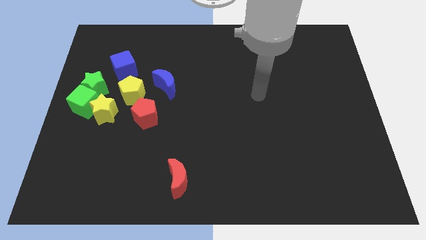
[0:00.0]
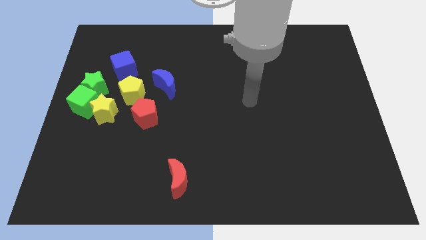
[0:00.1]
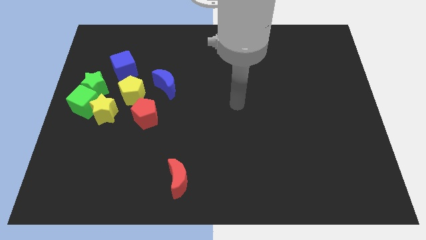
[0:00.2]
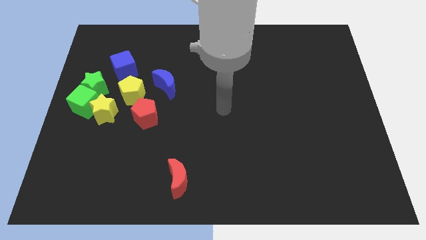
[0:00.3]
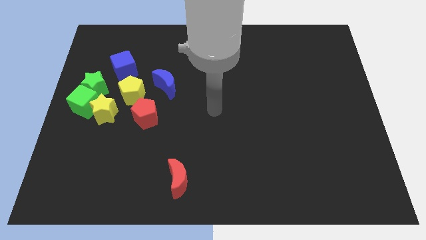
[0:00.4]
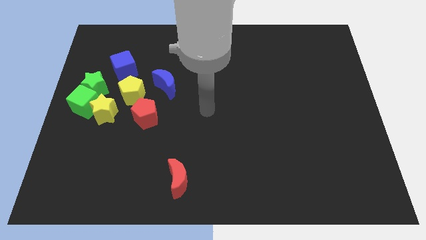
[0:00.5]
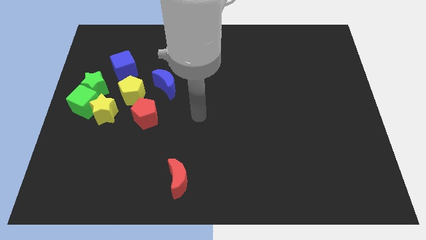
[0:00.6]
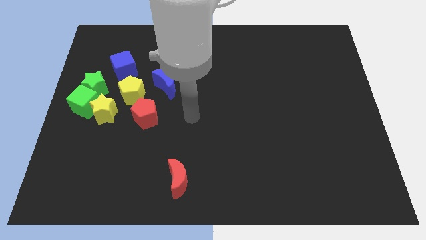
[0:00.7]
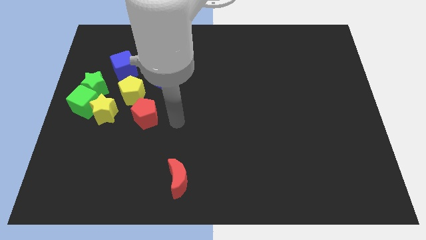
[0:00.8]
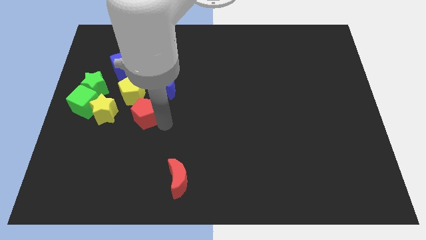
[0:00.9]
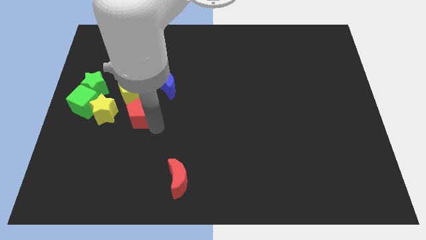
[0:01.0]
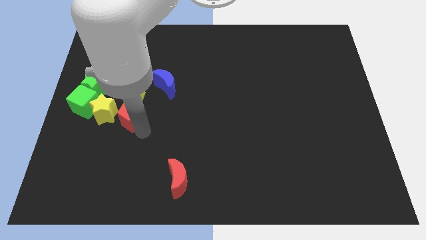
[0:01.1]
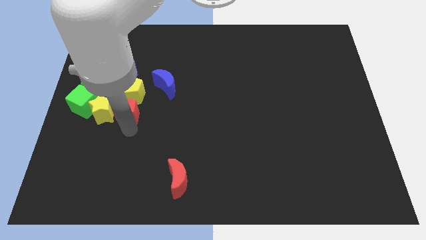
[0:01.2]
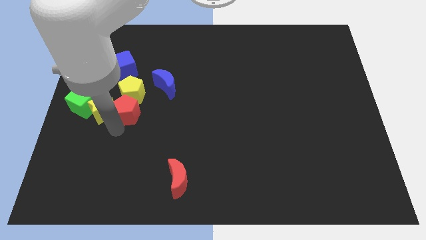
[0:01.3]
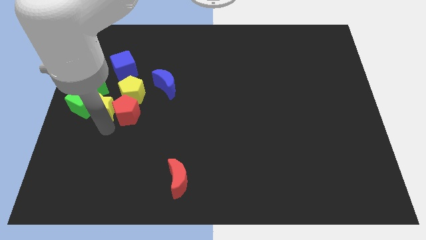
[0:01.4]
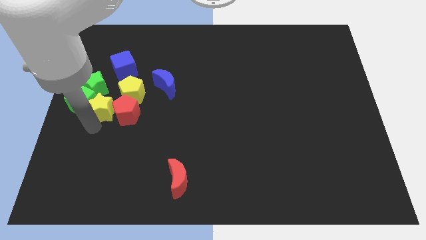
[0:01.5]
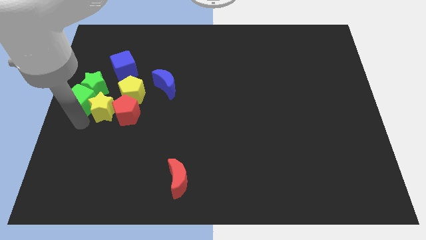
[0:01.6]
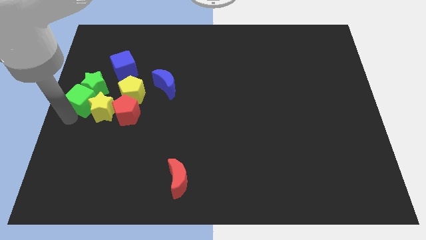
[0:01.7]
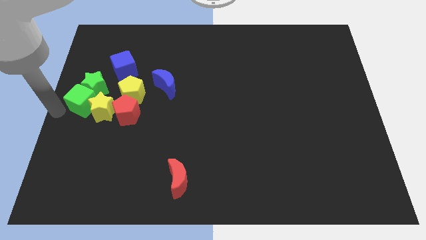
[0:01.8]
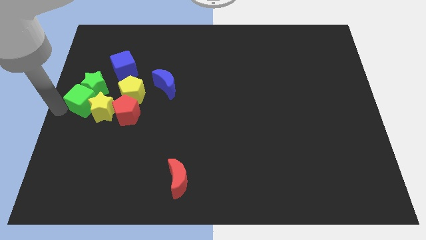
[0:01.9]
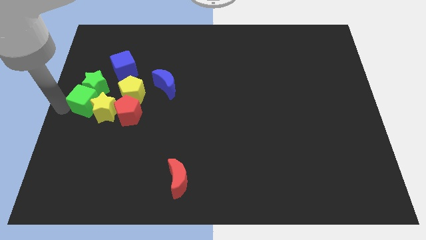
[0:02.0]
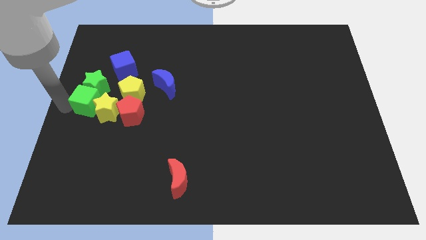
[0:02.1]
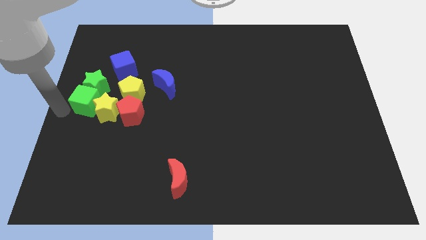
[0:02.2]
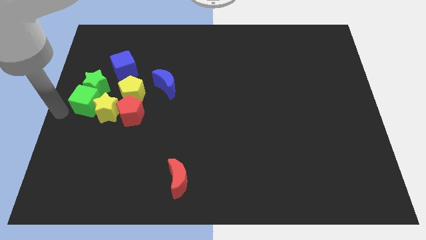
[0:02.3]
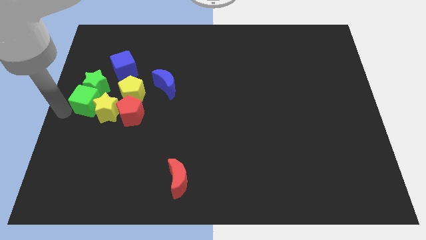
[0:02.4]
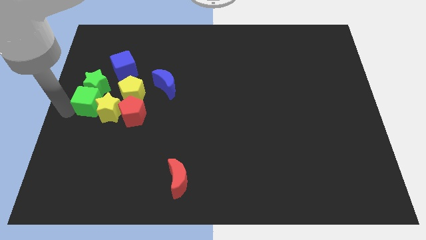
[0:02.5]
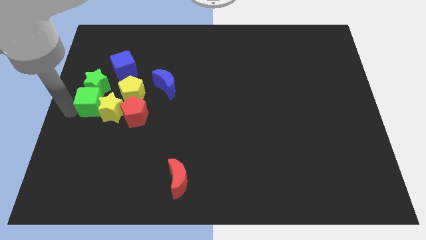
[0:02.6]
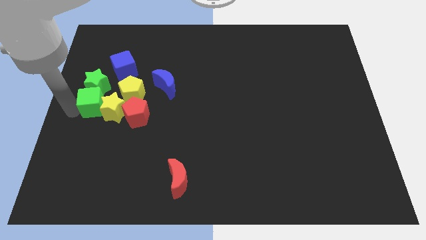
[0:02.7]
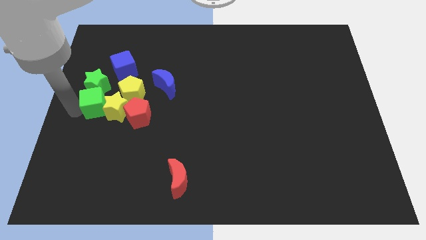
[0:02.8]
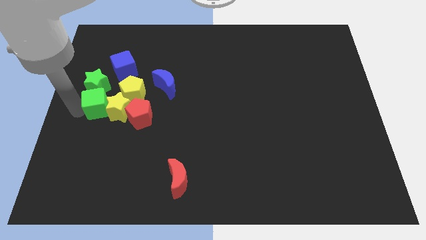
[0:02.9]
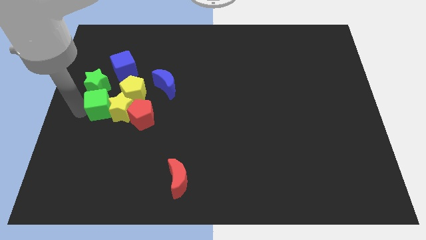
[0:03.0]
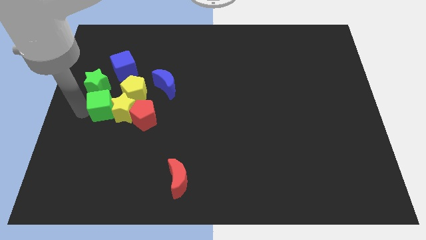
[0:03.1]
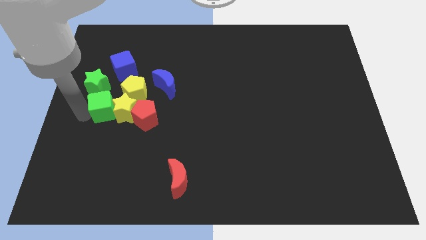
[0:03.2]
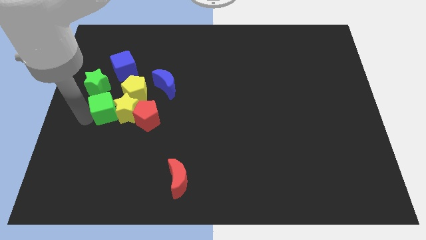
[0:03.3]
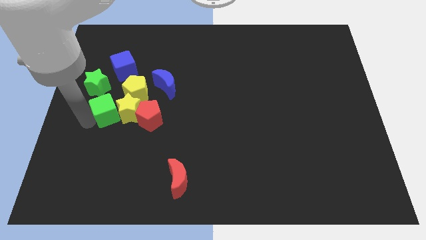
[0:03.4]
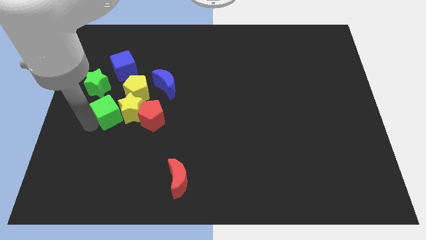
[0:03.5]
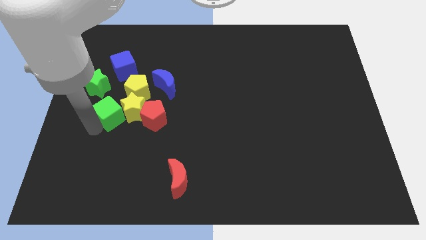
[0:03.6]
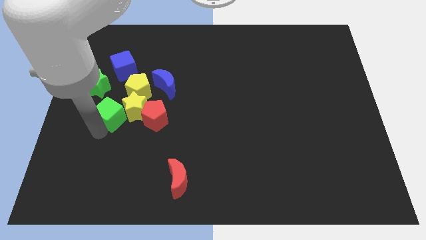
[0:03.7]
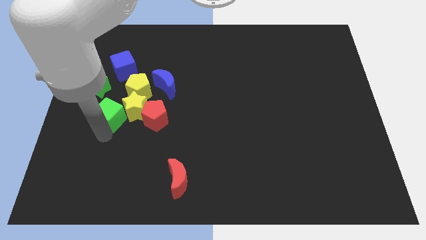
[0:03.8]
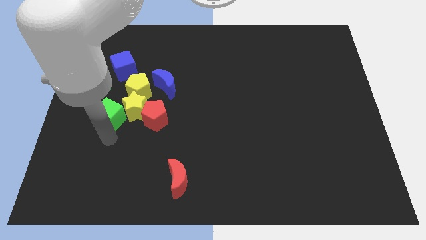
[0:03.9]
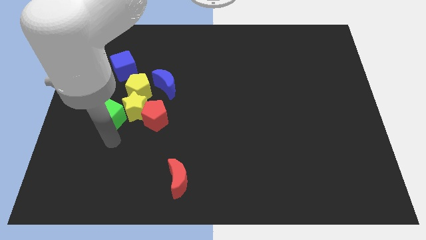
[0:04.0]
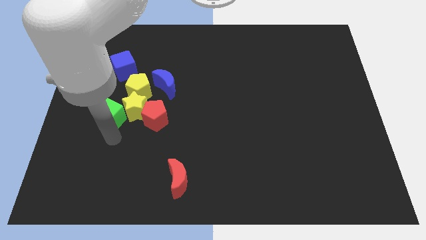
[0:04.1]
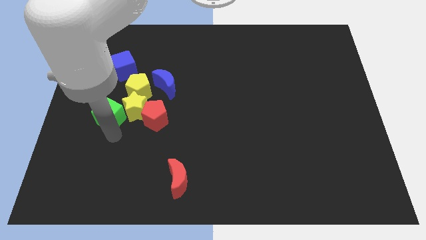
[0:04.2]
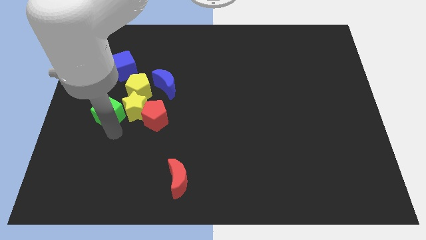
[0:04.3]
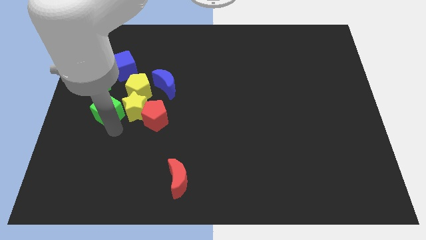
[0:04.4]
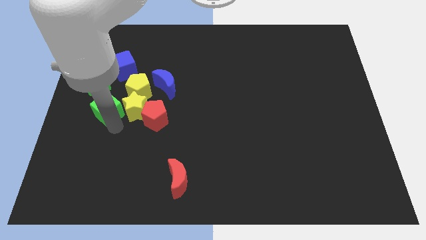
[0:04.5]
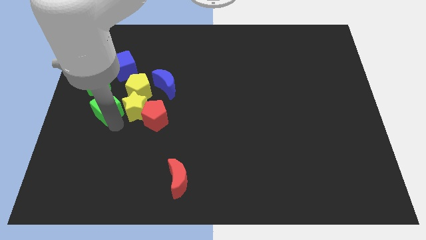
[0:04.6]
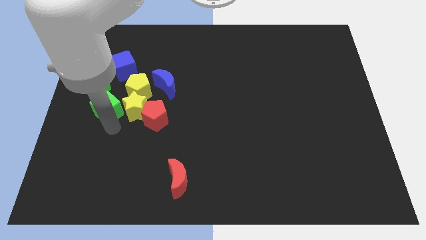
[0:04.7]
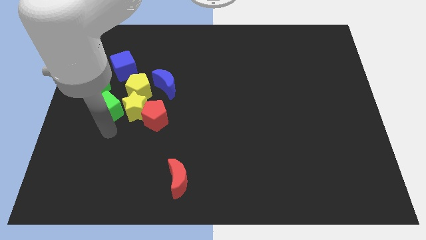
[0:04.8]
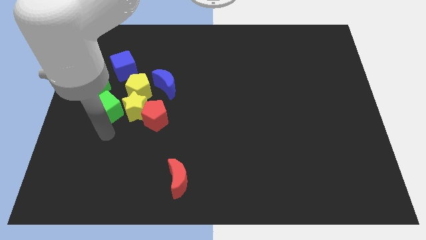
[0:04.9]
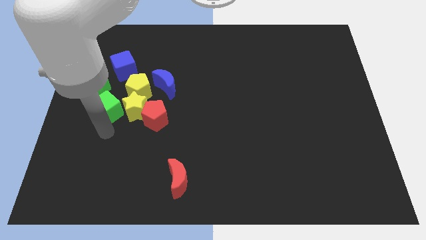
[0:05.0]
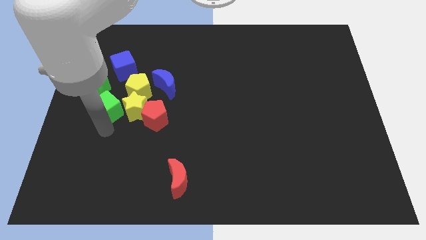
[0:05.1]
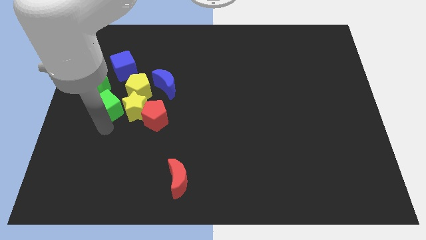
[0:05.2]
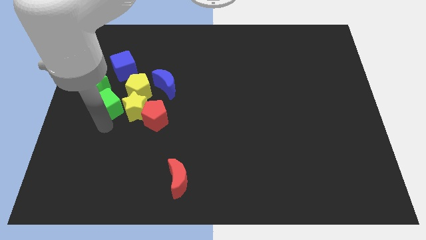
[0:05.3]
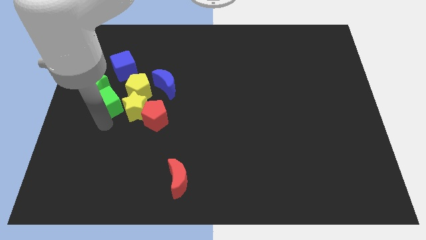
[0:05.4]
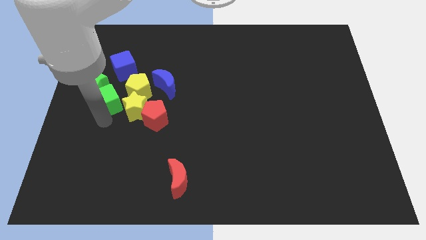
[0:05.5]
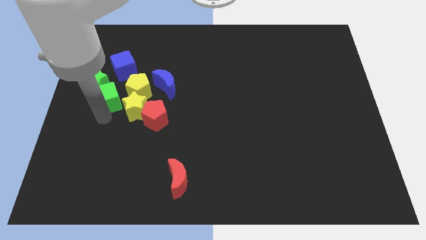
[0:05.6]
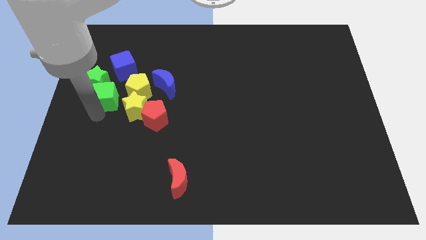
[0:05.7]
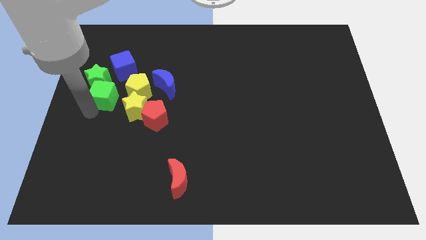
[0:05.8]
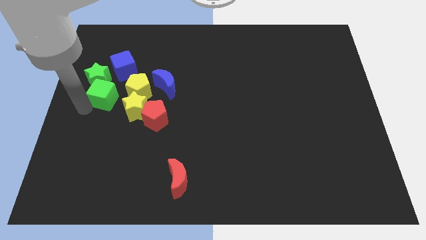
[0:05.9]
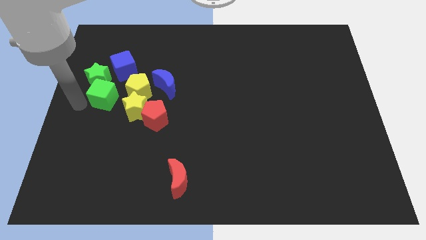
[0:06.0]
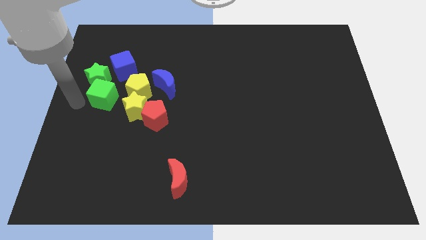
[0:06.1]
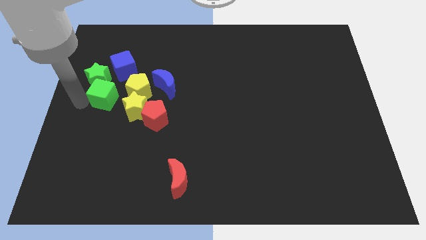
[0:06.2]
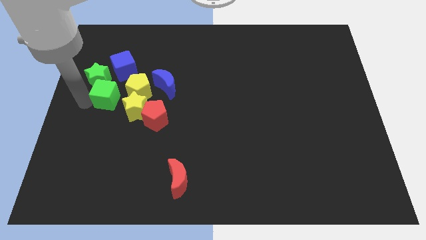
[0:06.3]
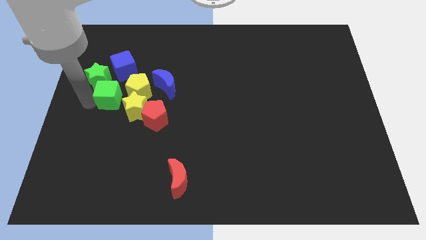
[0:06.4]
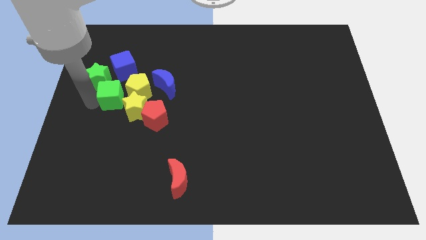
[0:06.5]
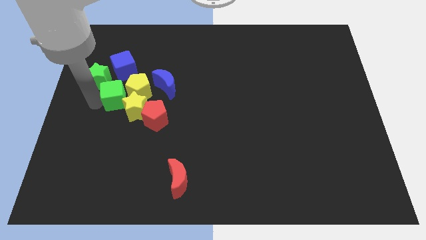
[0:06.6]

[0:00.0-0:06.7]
push the green cube to the yellow pentagon
